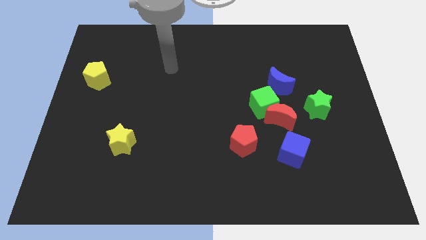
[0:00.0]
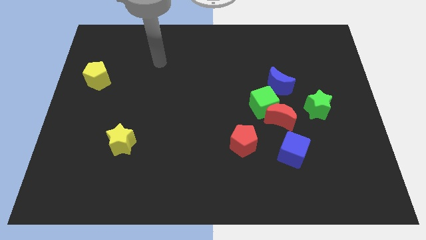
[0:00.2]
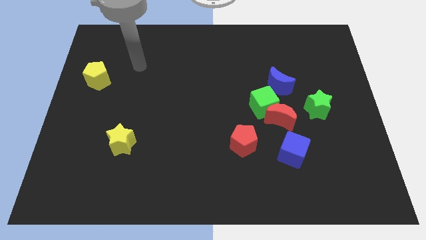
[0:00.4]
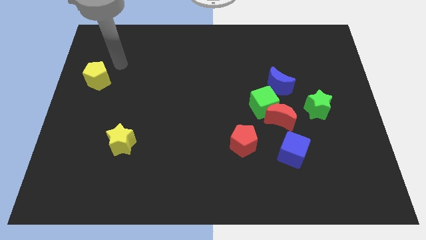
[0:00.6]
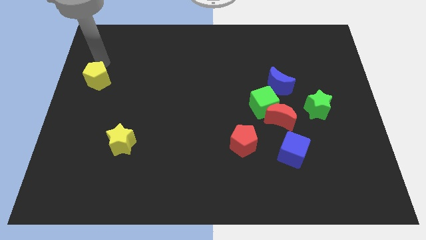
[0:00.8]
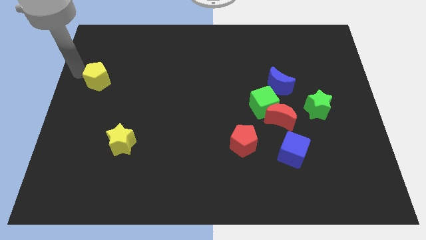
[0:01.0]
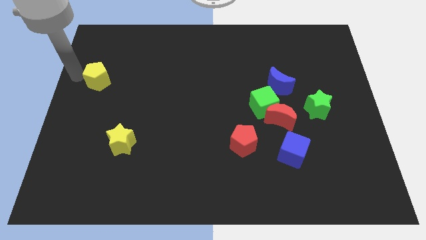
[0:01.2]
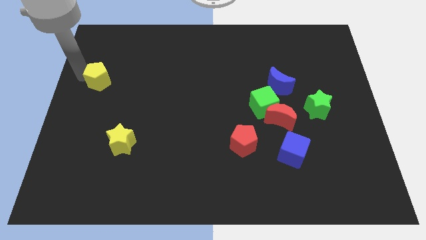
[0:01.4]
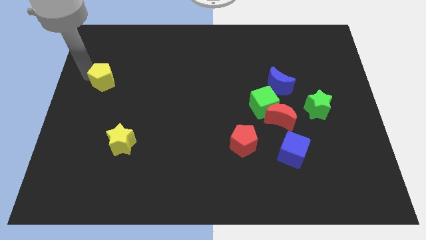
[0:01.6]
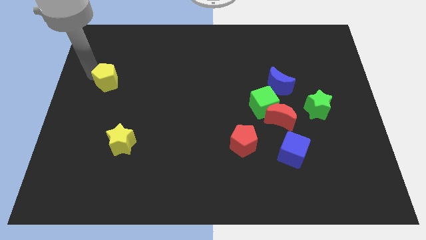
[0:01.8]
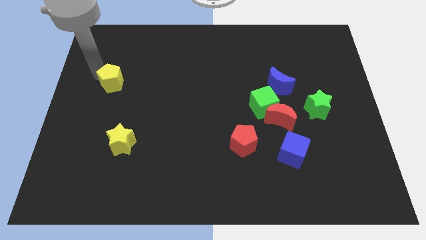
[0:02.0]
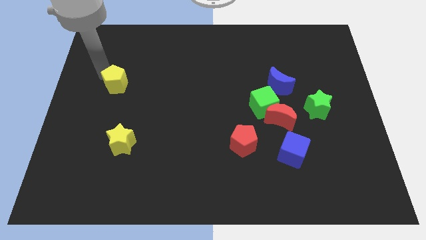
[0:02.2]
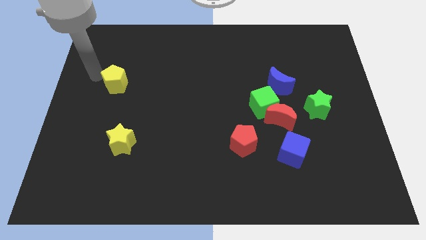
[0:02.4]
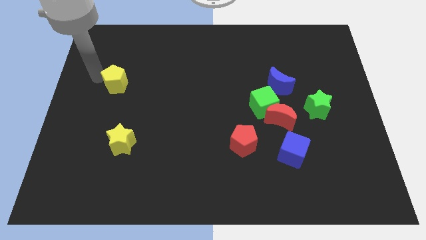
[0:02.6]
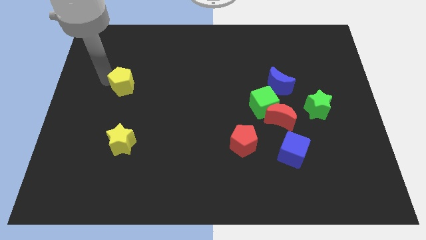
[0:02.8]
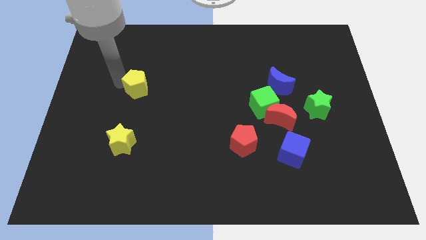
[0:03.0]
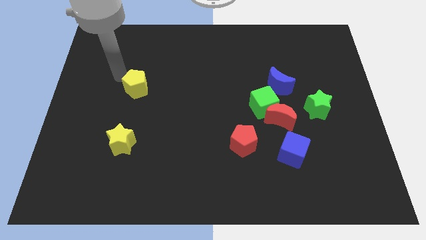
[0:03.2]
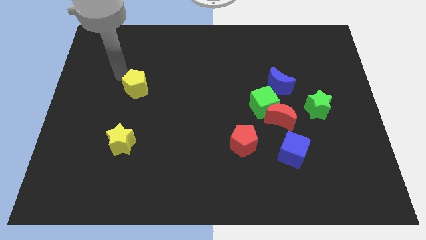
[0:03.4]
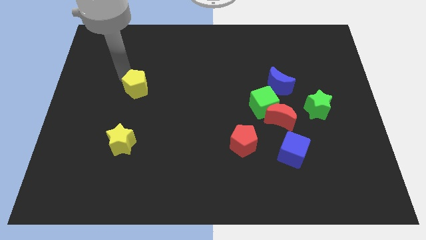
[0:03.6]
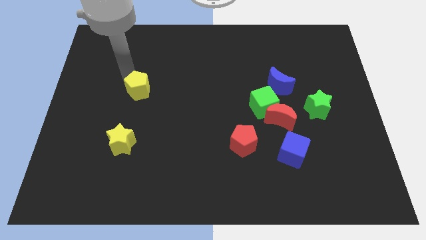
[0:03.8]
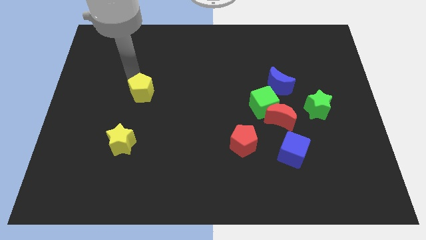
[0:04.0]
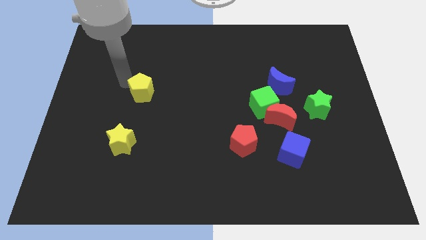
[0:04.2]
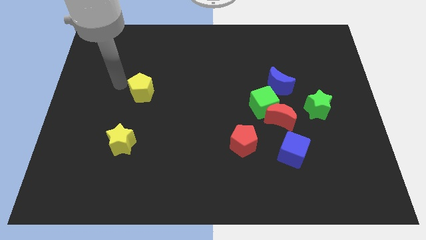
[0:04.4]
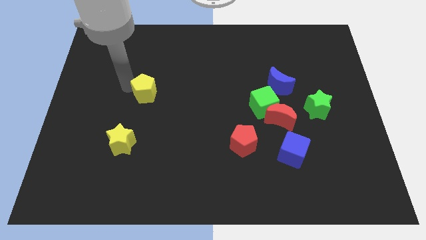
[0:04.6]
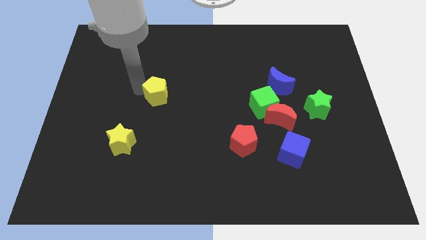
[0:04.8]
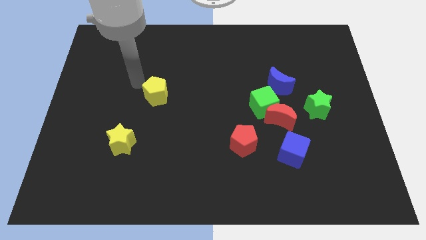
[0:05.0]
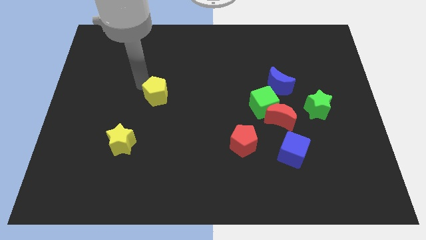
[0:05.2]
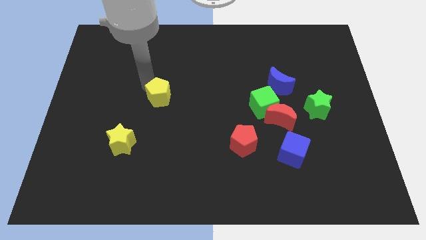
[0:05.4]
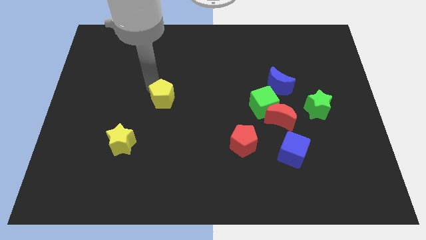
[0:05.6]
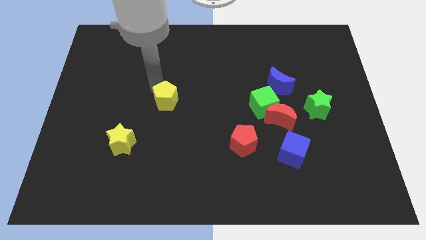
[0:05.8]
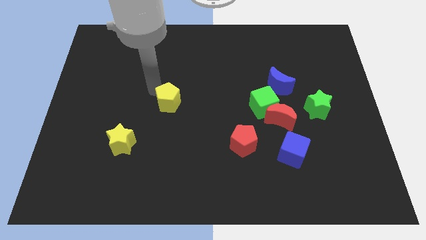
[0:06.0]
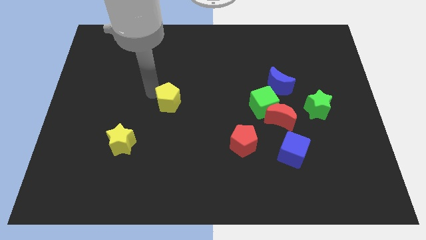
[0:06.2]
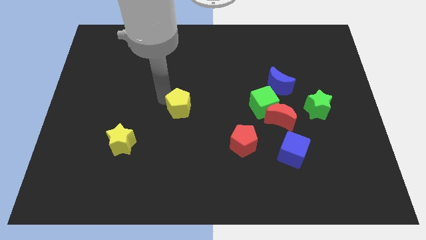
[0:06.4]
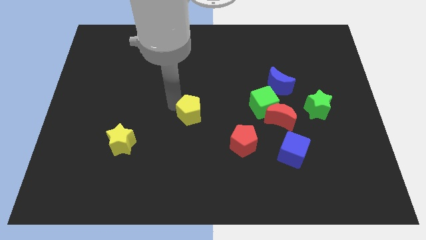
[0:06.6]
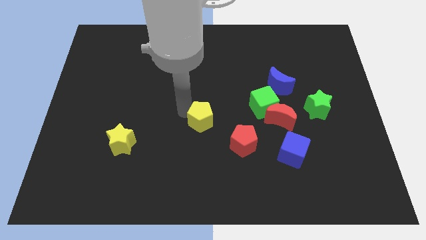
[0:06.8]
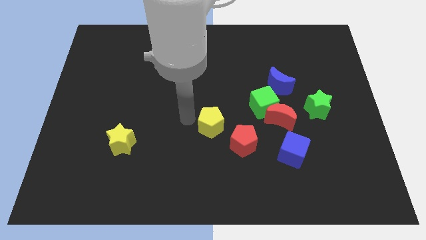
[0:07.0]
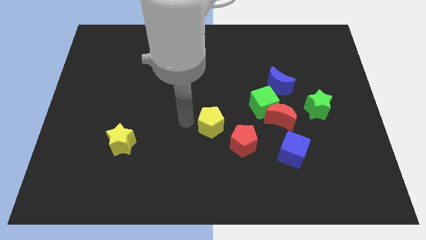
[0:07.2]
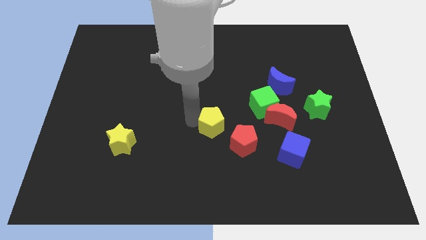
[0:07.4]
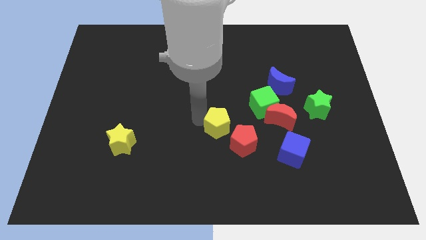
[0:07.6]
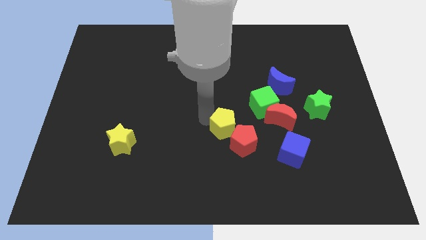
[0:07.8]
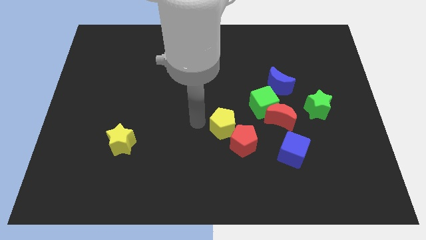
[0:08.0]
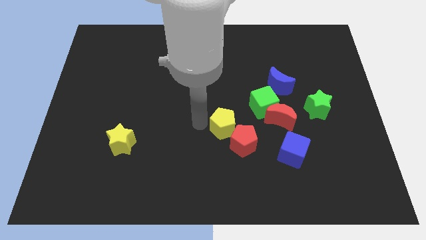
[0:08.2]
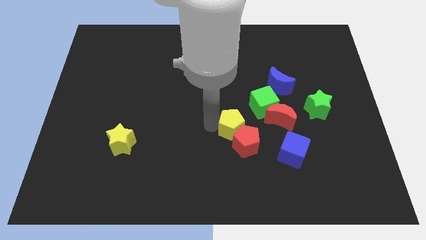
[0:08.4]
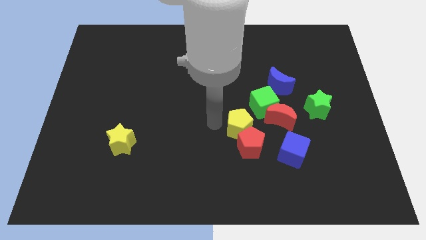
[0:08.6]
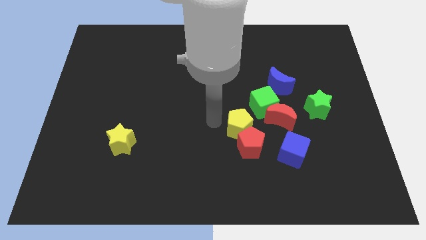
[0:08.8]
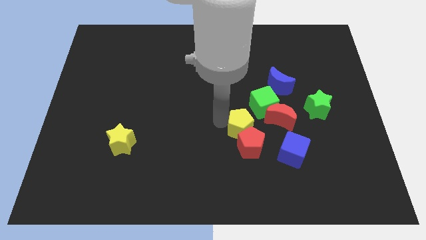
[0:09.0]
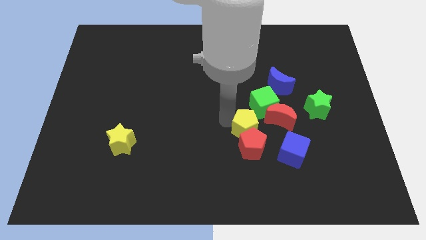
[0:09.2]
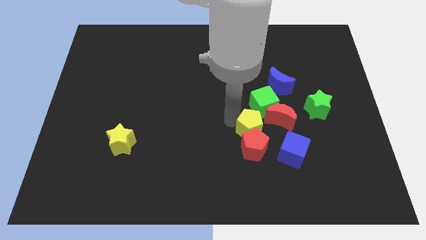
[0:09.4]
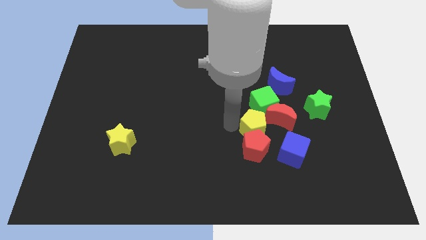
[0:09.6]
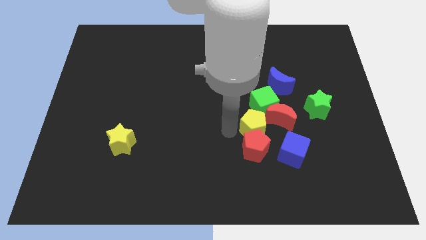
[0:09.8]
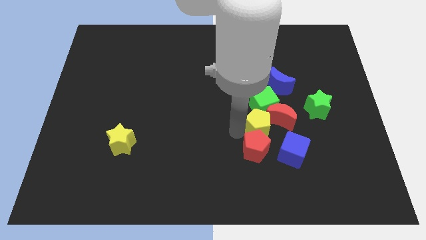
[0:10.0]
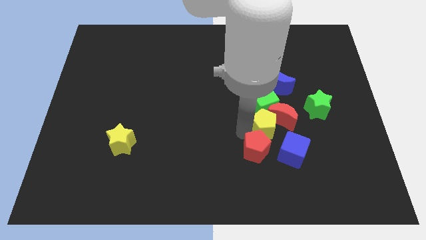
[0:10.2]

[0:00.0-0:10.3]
put the yellow pentagon to the bottom right of the green cube

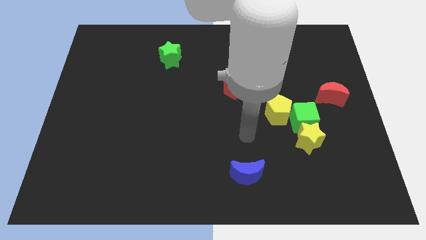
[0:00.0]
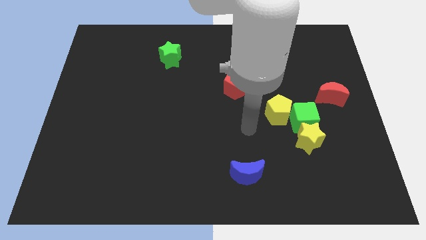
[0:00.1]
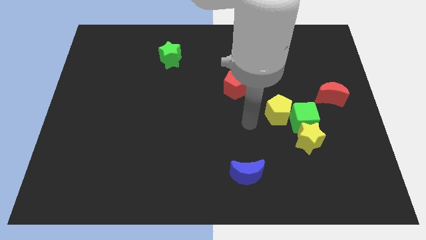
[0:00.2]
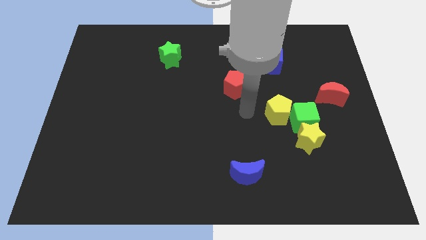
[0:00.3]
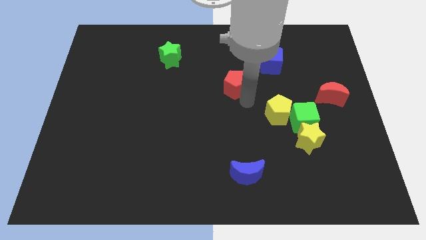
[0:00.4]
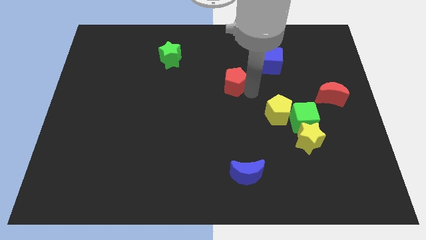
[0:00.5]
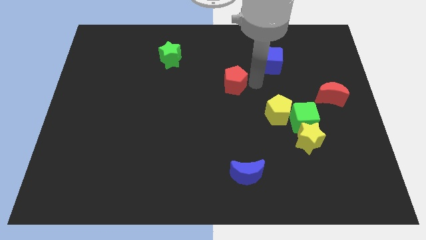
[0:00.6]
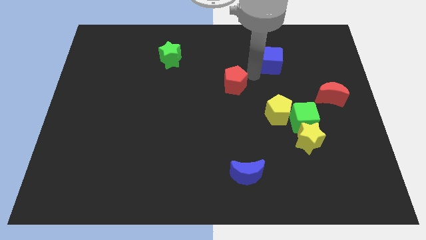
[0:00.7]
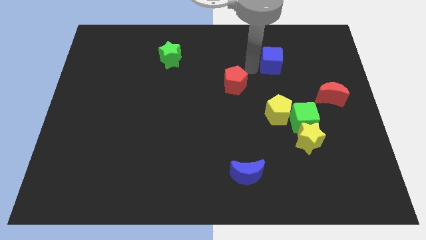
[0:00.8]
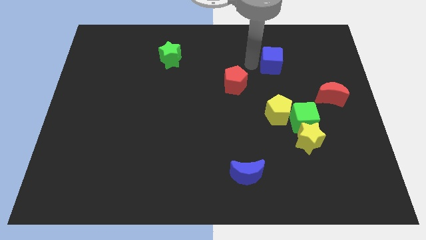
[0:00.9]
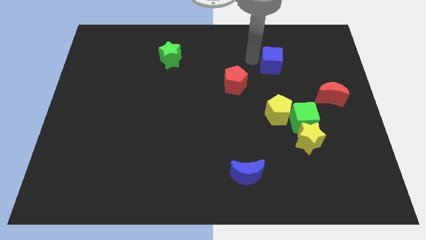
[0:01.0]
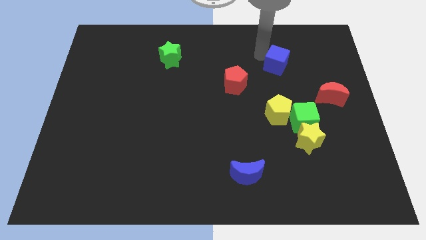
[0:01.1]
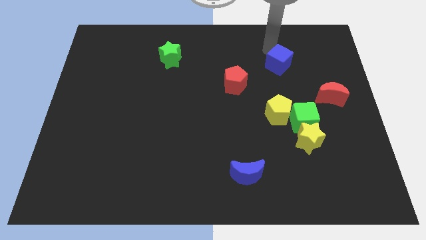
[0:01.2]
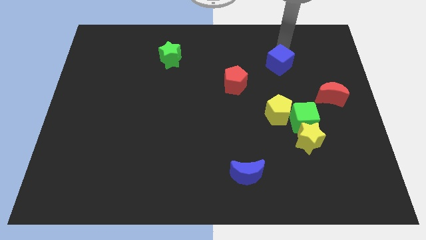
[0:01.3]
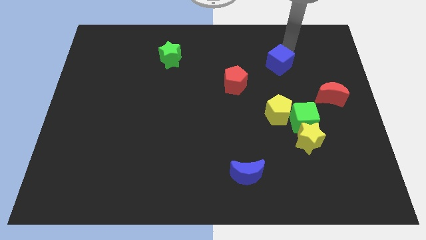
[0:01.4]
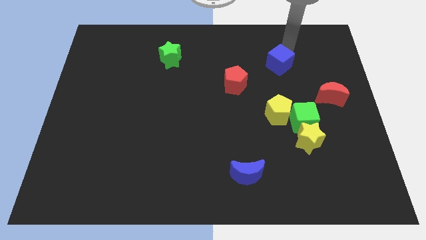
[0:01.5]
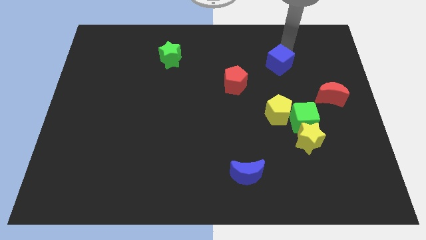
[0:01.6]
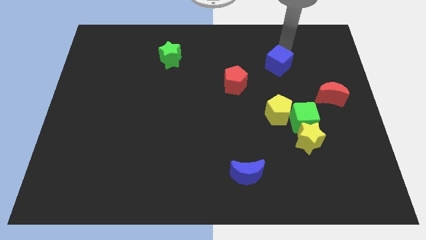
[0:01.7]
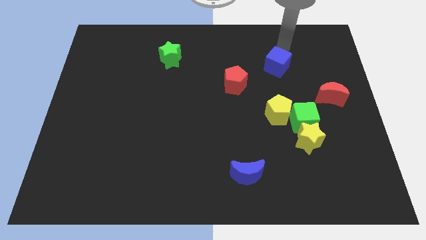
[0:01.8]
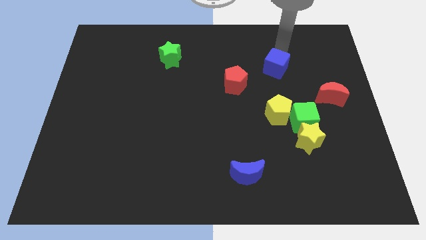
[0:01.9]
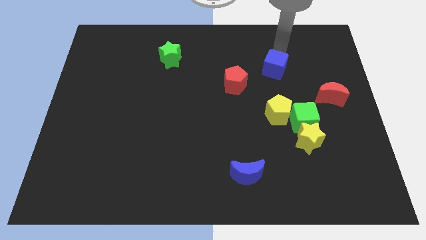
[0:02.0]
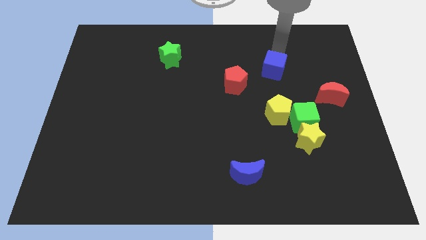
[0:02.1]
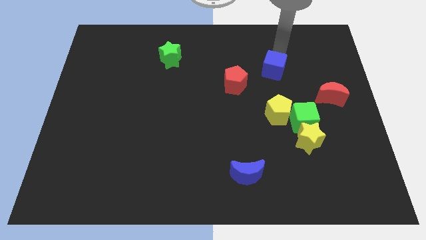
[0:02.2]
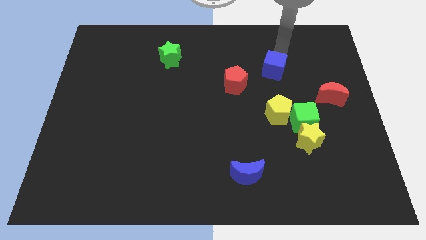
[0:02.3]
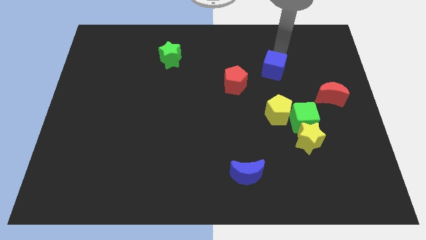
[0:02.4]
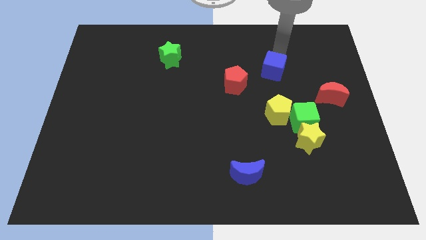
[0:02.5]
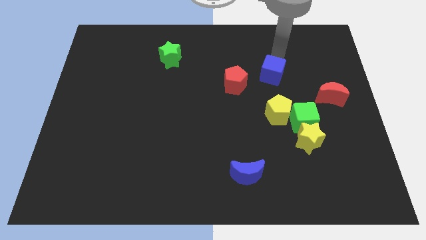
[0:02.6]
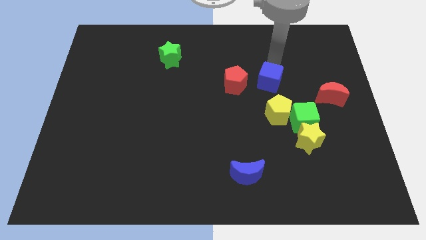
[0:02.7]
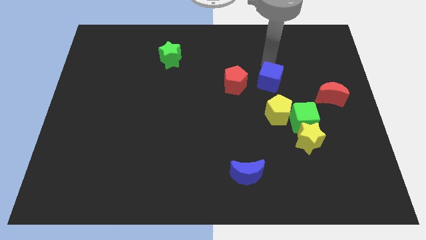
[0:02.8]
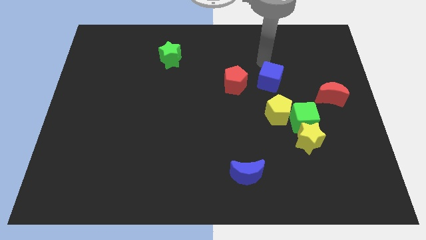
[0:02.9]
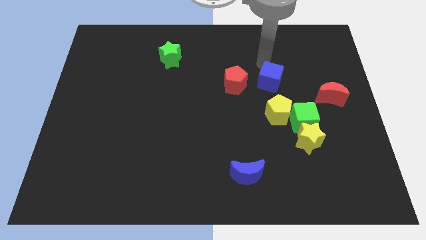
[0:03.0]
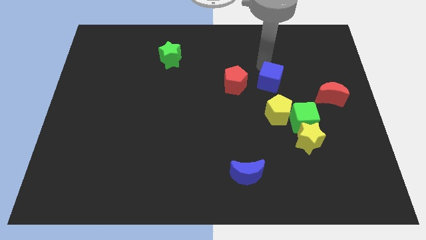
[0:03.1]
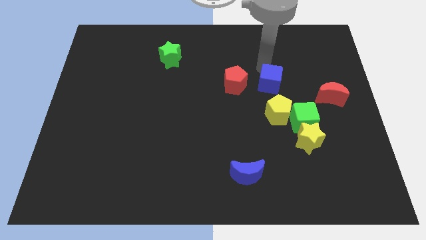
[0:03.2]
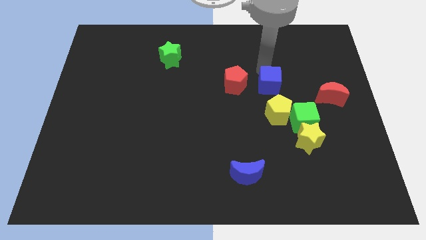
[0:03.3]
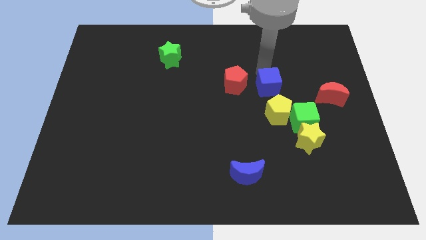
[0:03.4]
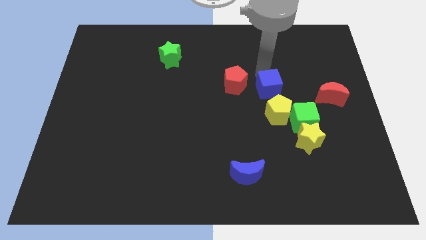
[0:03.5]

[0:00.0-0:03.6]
move the blue cube to the top left of the green cube
